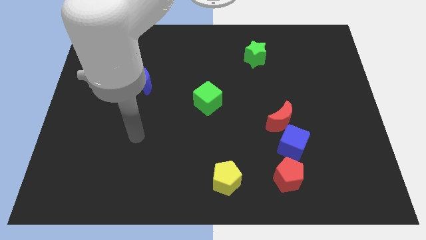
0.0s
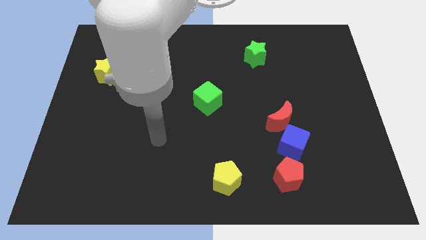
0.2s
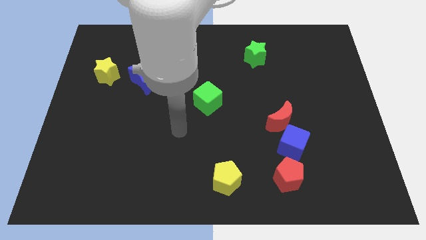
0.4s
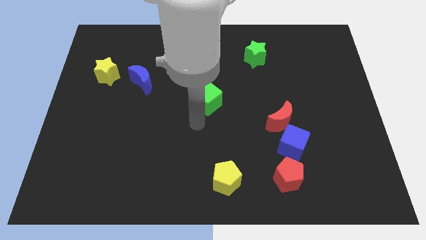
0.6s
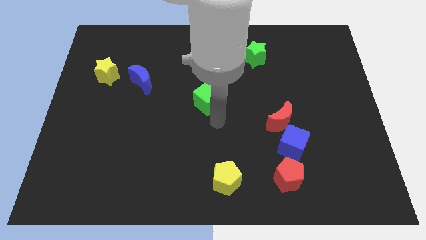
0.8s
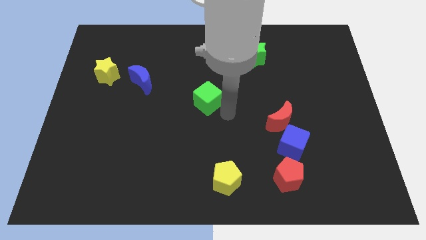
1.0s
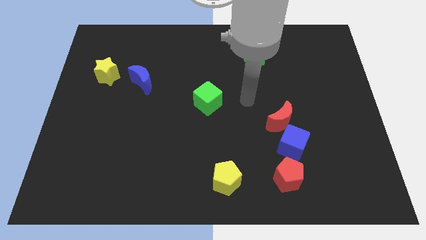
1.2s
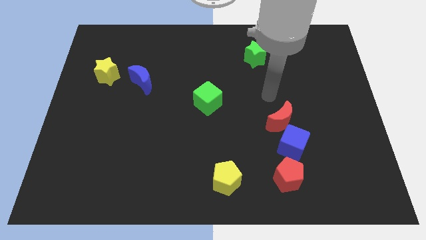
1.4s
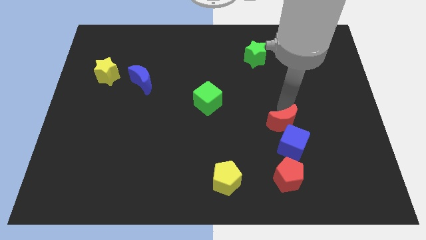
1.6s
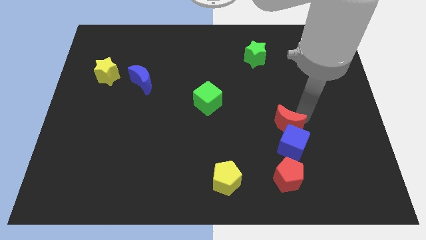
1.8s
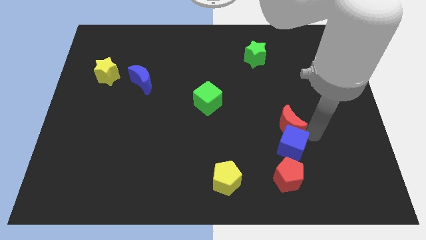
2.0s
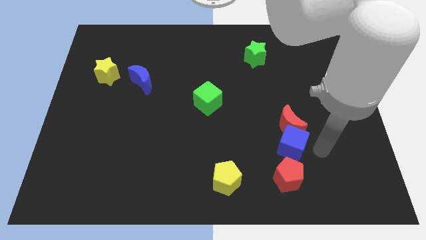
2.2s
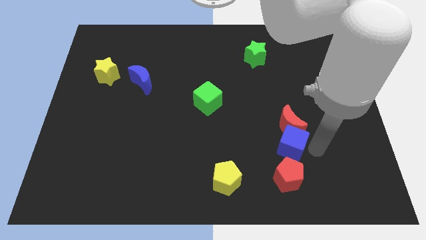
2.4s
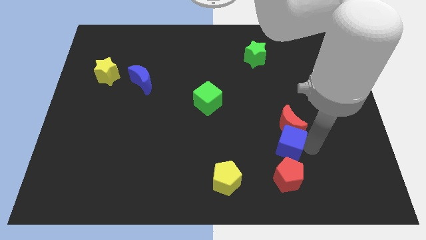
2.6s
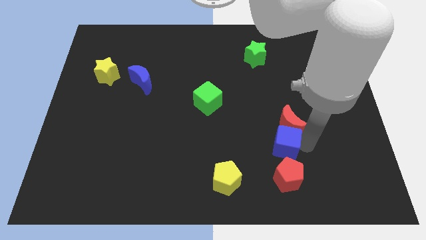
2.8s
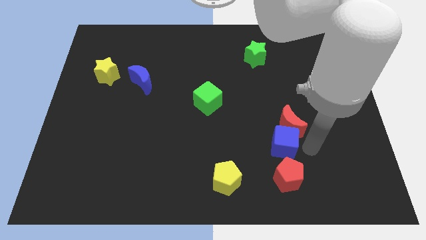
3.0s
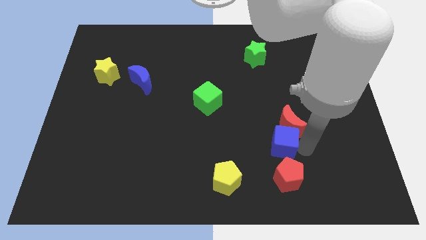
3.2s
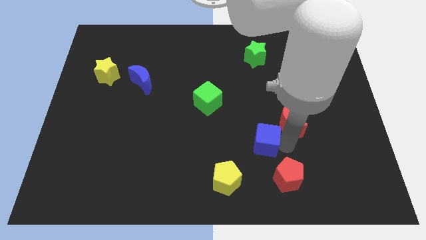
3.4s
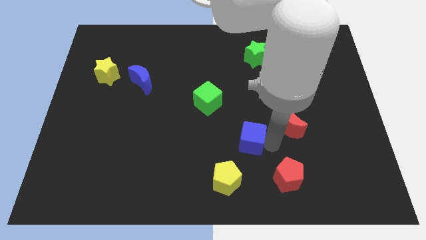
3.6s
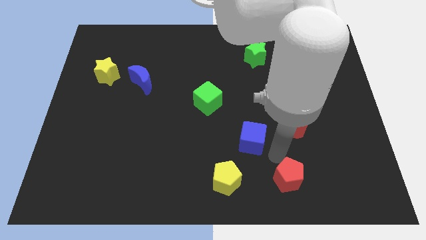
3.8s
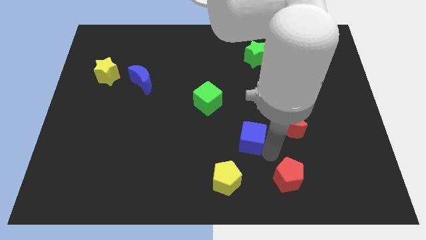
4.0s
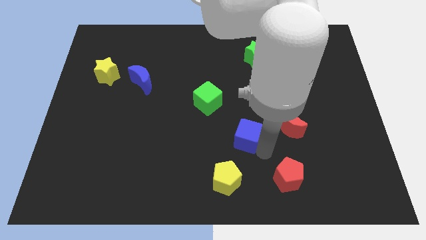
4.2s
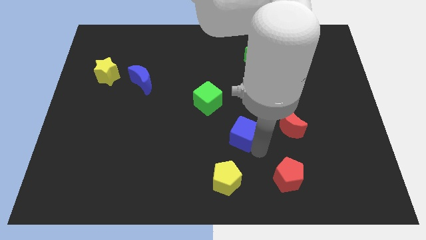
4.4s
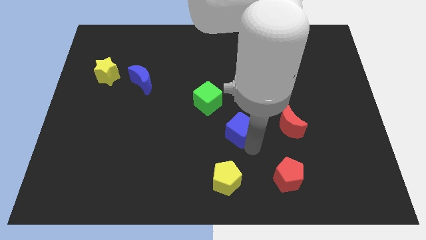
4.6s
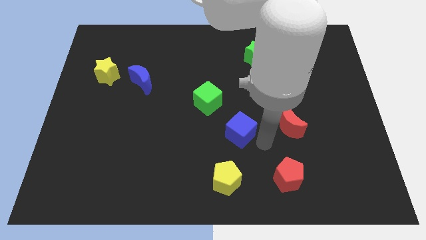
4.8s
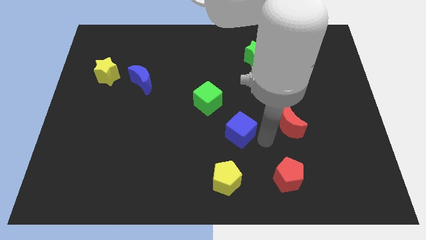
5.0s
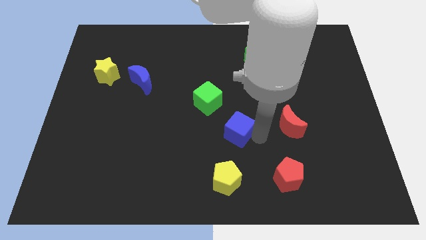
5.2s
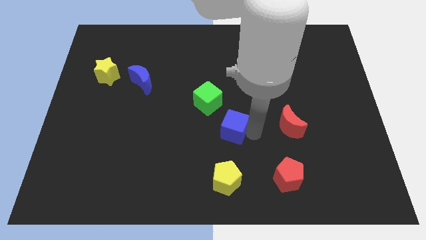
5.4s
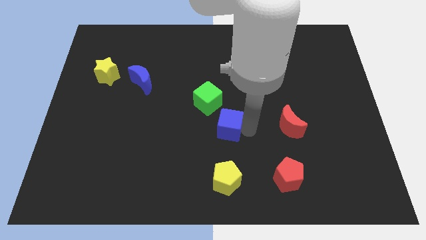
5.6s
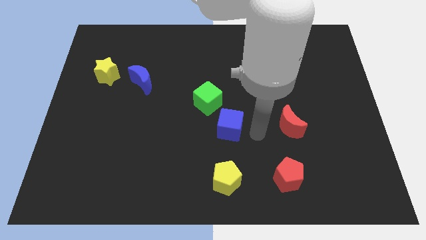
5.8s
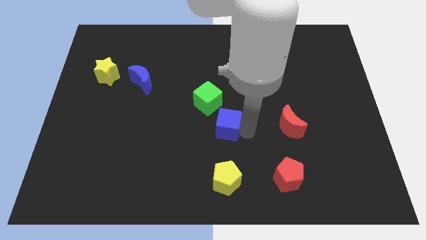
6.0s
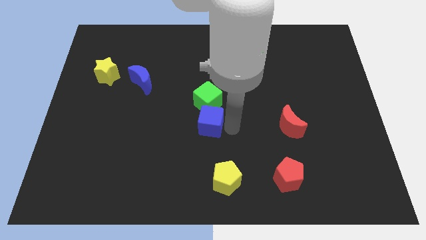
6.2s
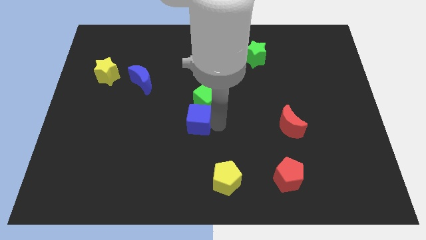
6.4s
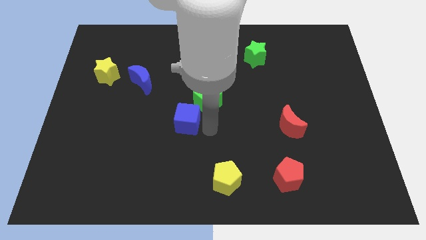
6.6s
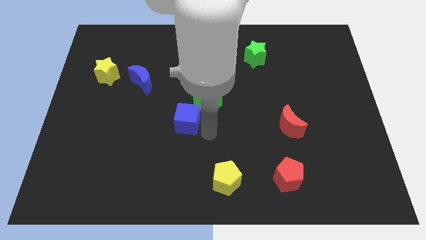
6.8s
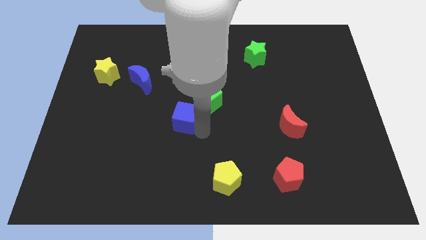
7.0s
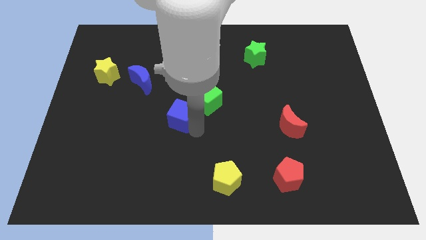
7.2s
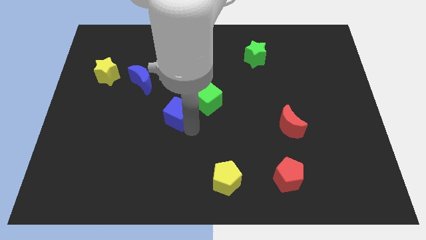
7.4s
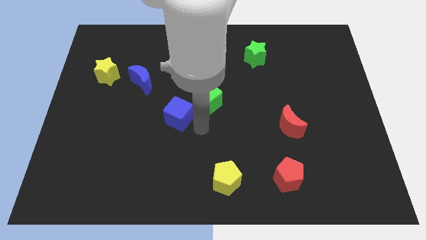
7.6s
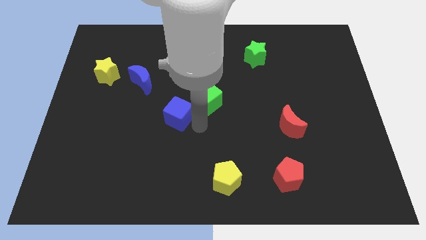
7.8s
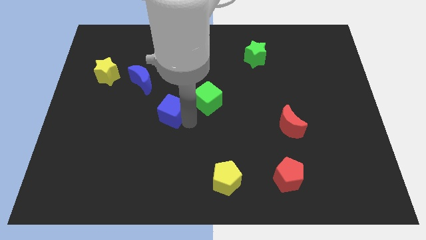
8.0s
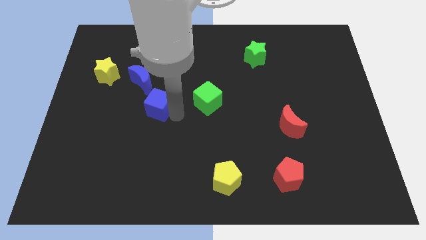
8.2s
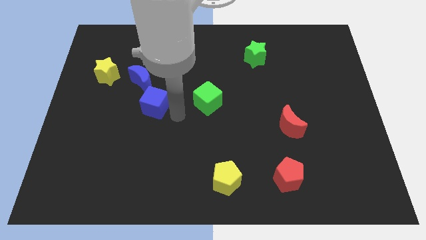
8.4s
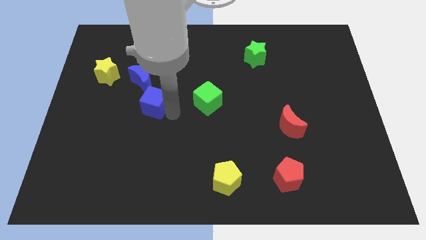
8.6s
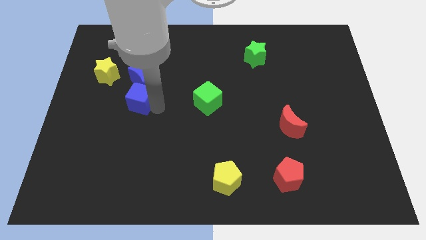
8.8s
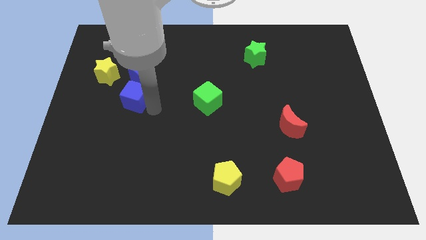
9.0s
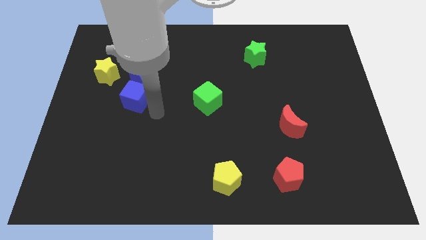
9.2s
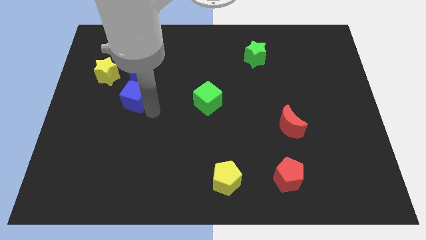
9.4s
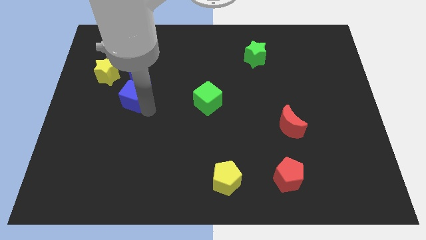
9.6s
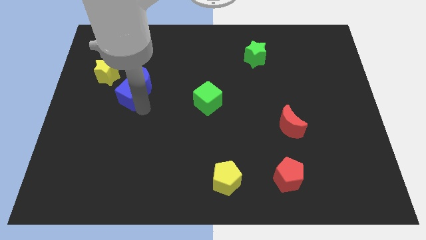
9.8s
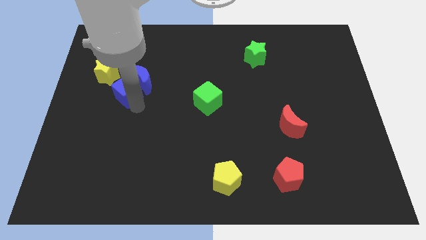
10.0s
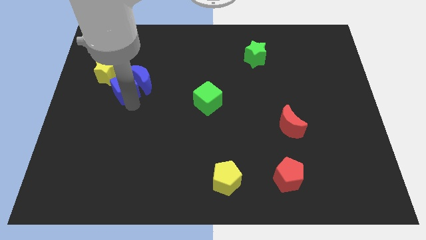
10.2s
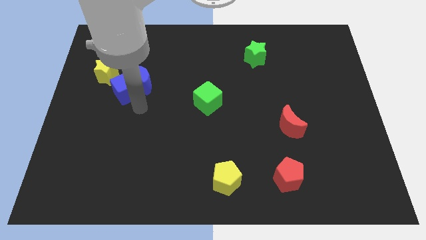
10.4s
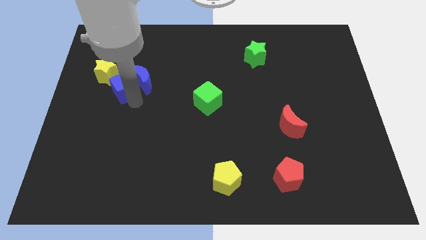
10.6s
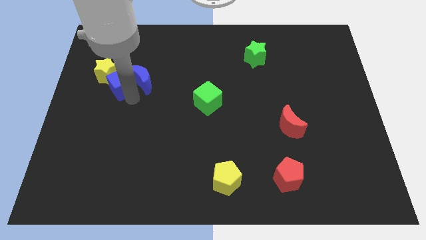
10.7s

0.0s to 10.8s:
move the blue cube close to the yellow star

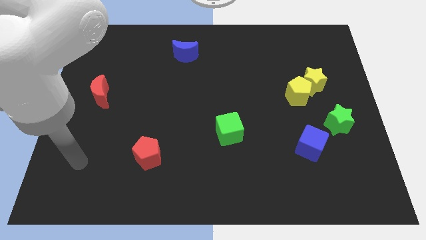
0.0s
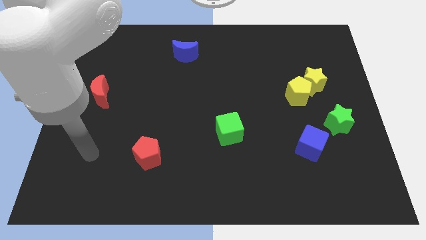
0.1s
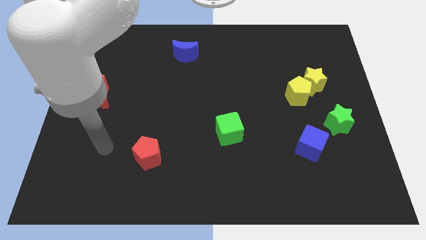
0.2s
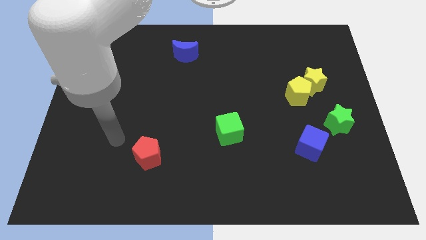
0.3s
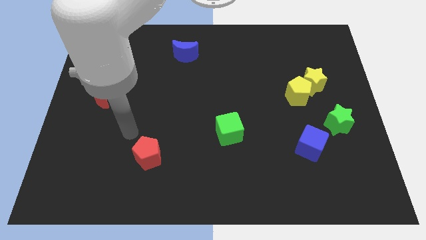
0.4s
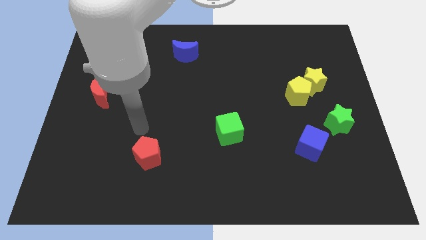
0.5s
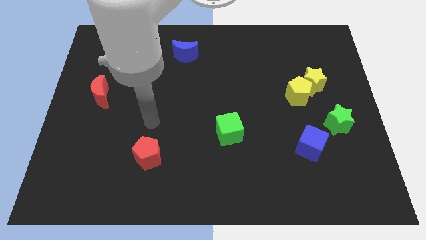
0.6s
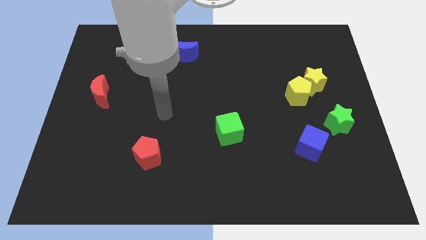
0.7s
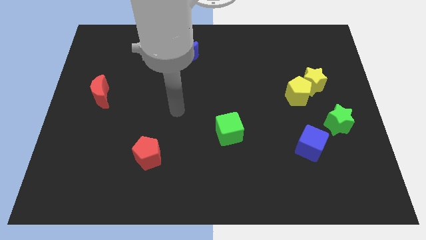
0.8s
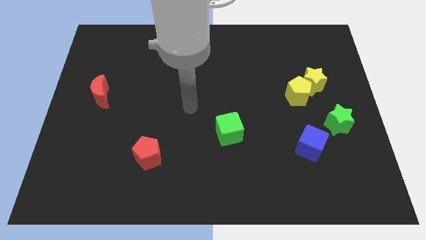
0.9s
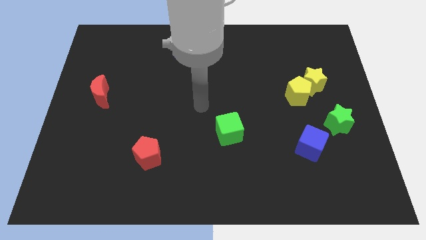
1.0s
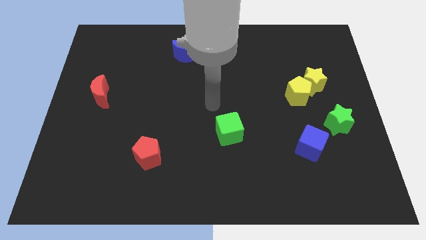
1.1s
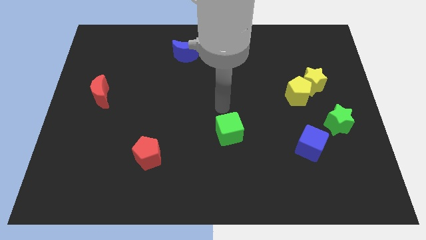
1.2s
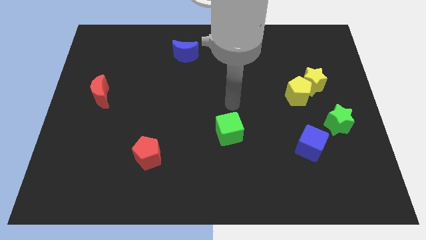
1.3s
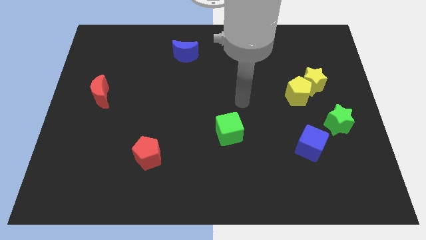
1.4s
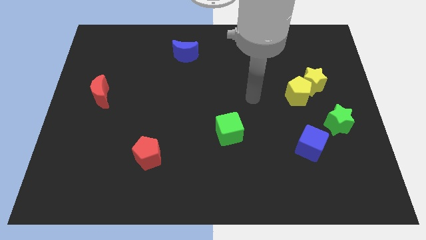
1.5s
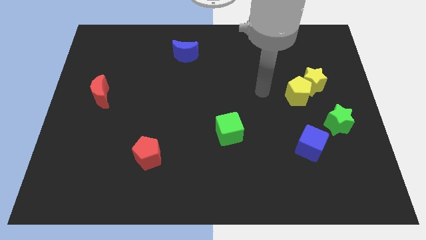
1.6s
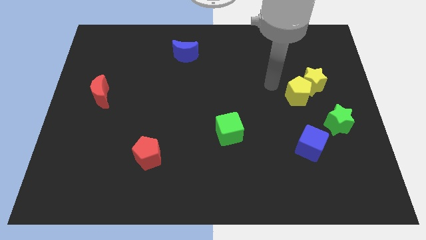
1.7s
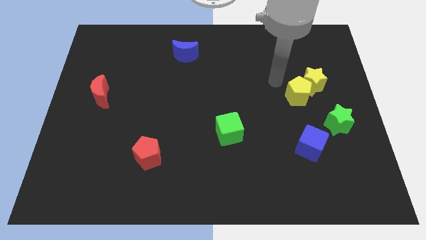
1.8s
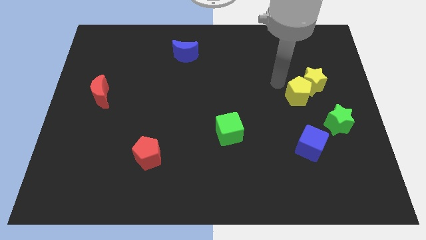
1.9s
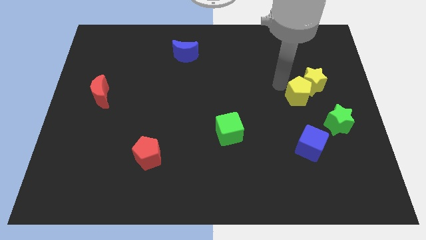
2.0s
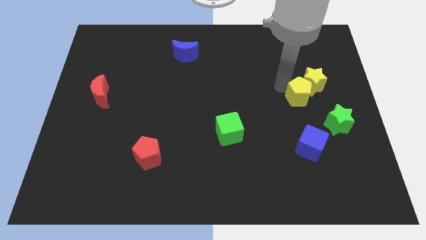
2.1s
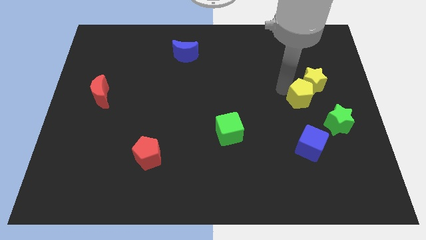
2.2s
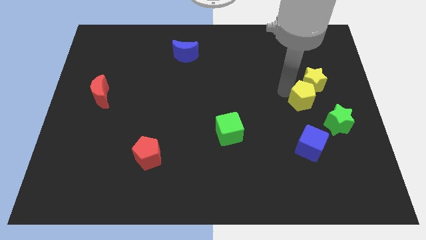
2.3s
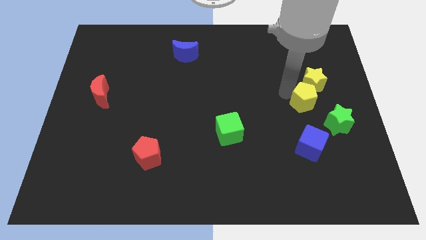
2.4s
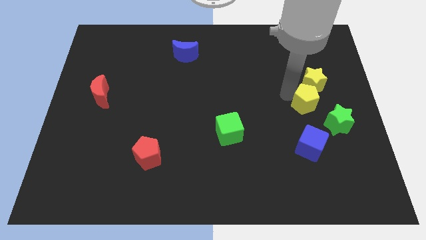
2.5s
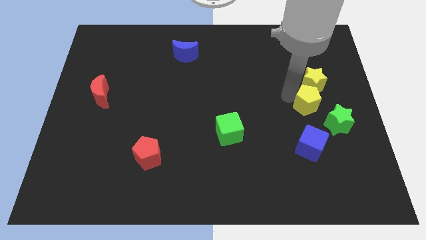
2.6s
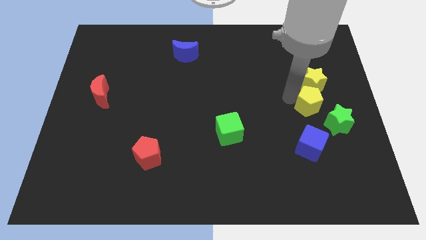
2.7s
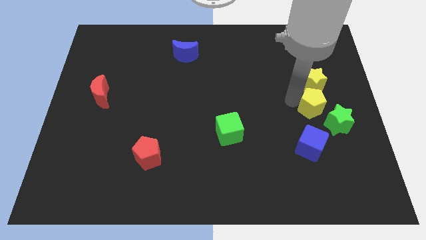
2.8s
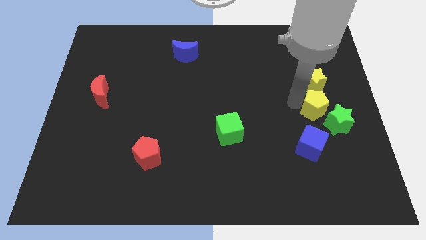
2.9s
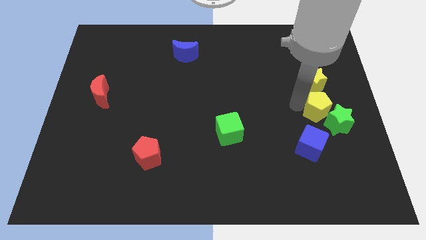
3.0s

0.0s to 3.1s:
slide the yellow pentagon next to the green star
